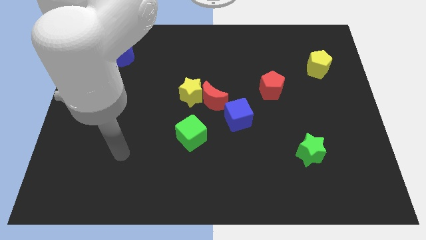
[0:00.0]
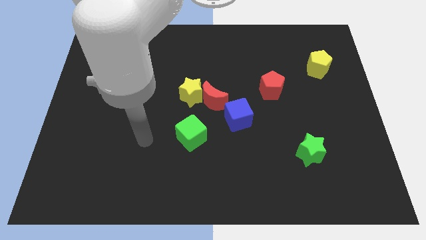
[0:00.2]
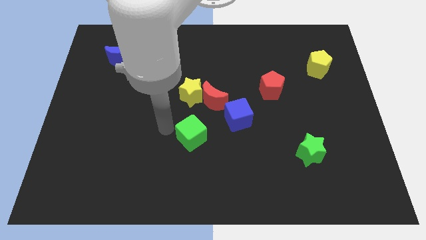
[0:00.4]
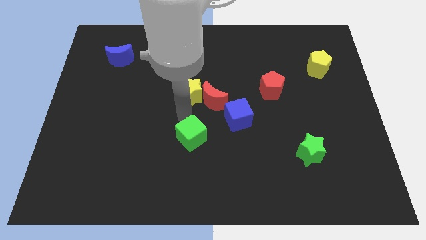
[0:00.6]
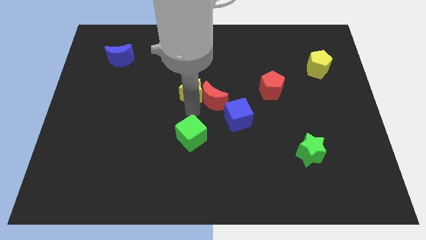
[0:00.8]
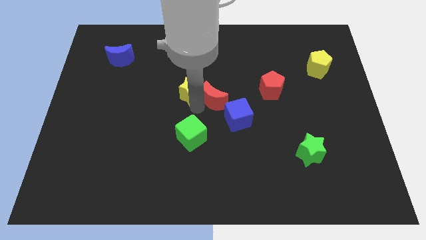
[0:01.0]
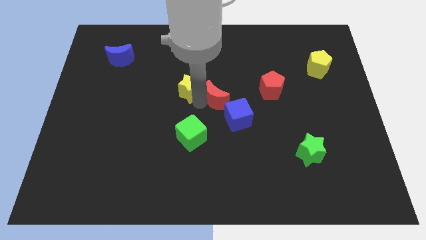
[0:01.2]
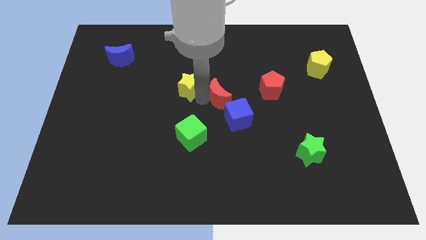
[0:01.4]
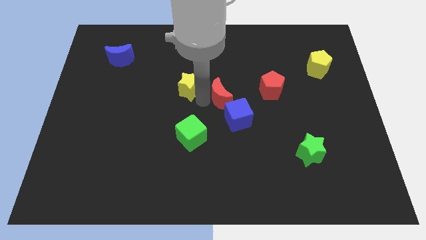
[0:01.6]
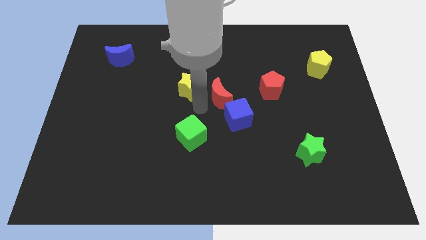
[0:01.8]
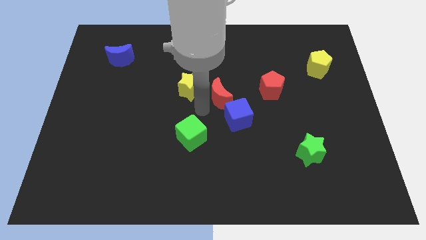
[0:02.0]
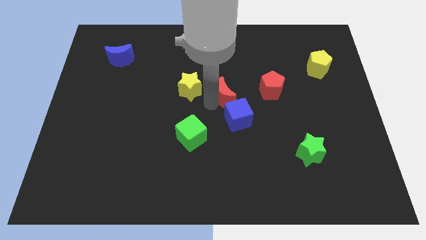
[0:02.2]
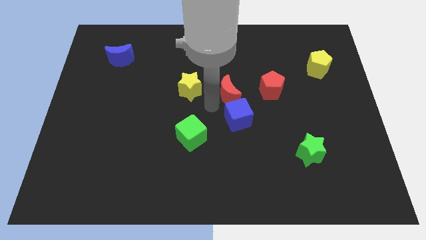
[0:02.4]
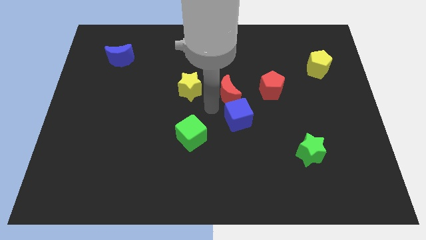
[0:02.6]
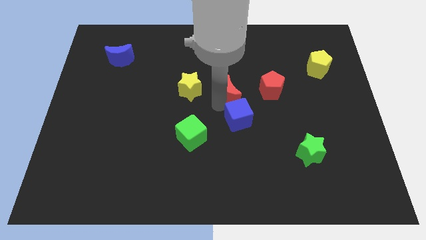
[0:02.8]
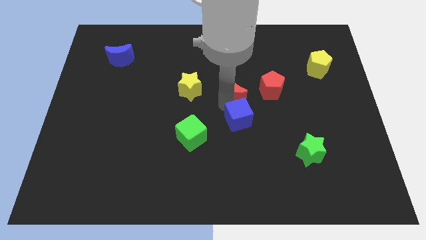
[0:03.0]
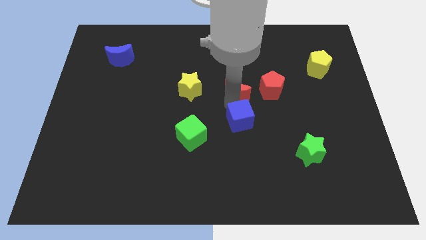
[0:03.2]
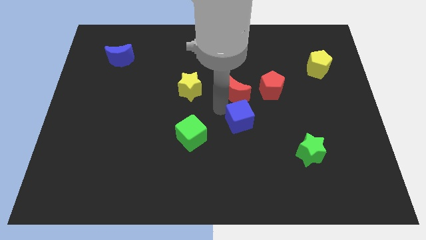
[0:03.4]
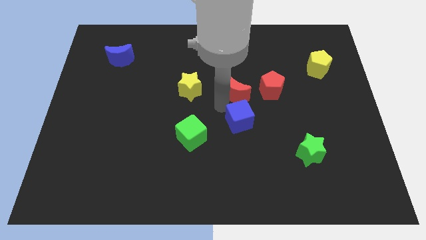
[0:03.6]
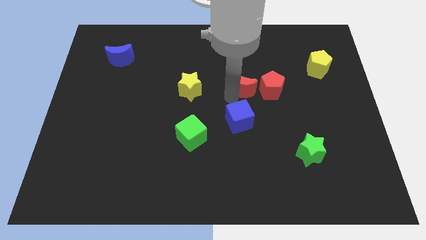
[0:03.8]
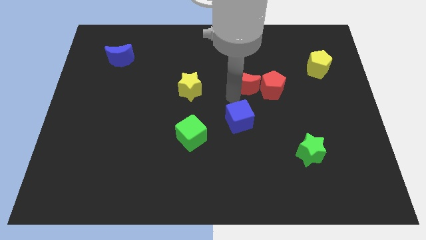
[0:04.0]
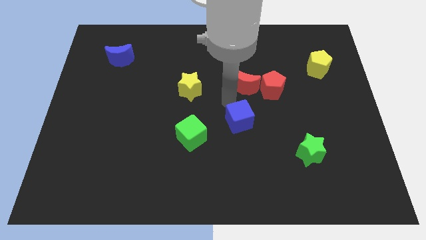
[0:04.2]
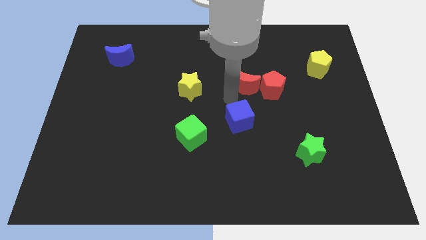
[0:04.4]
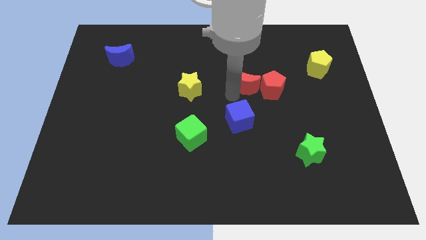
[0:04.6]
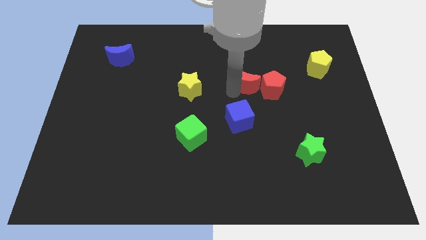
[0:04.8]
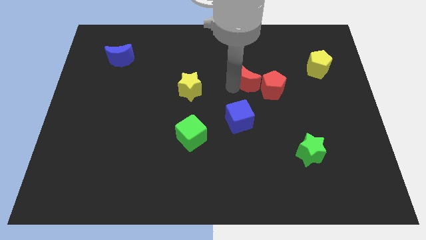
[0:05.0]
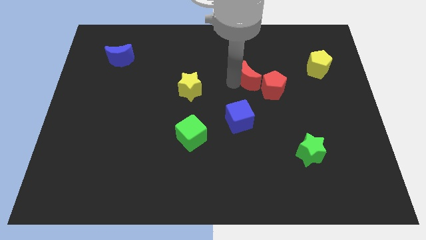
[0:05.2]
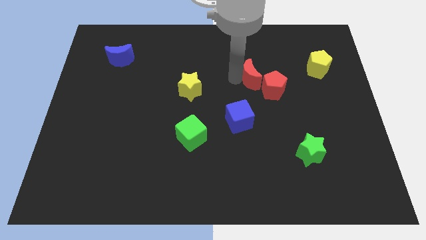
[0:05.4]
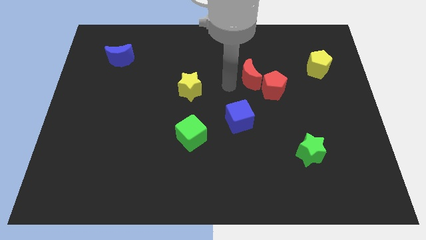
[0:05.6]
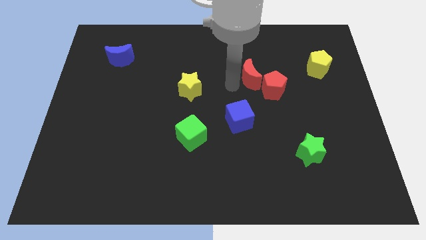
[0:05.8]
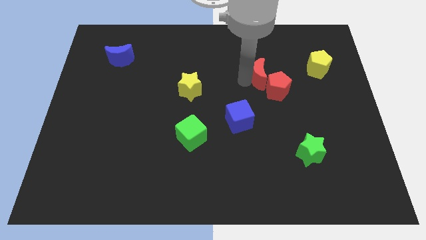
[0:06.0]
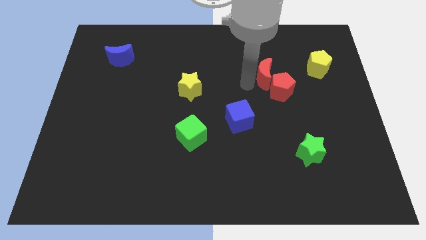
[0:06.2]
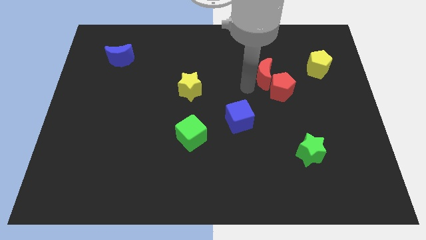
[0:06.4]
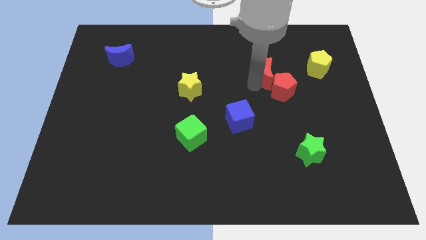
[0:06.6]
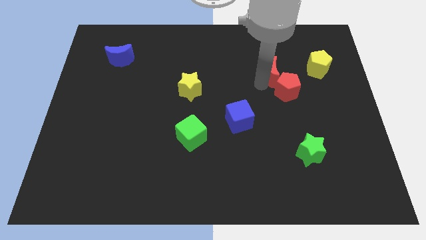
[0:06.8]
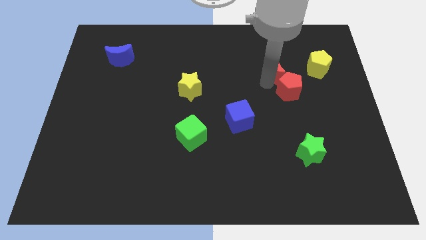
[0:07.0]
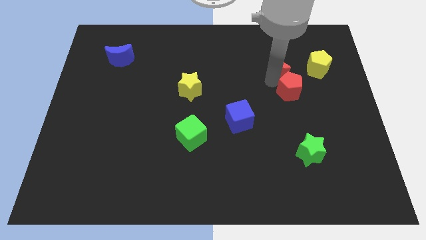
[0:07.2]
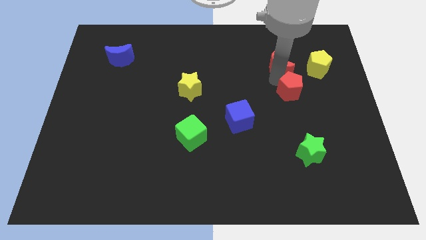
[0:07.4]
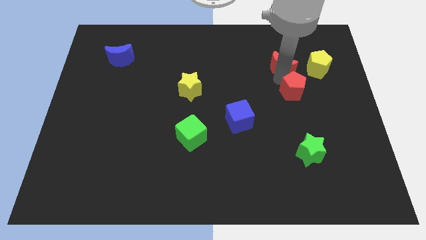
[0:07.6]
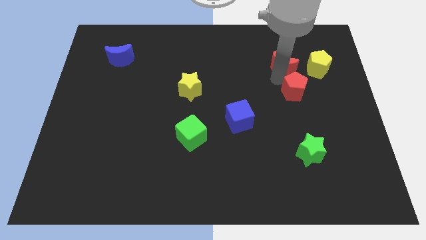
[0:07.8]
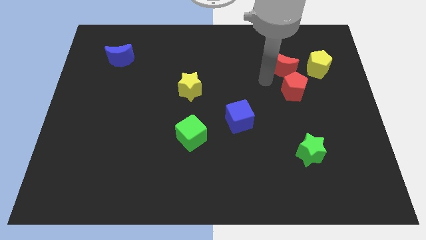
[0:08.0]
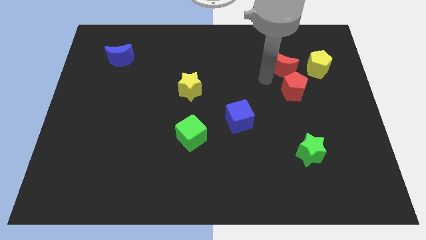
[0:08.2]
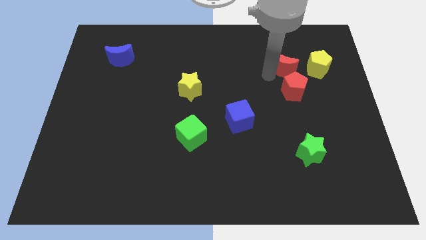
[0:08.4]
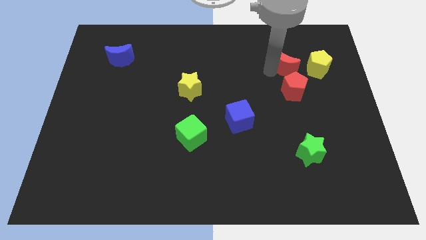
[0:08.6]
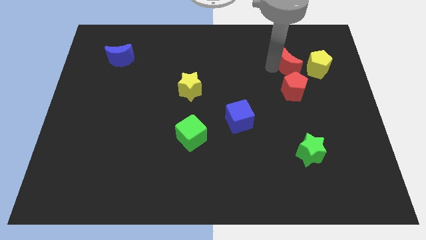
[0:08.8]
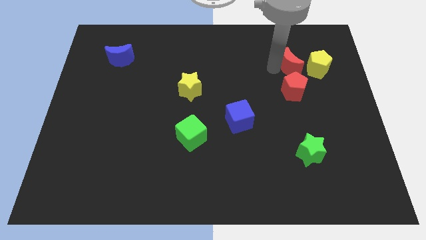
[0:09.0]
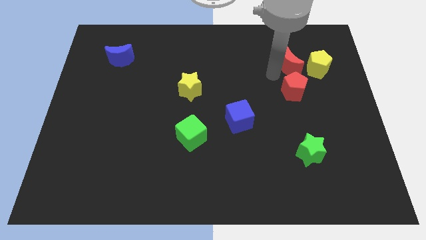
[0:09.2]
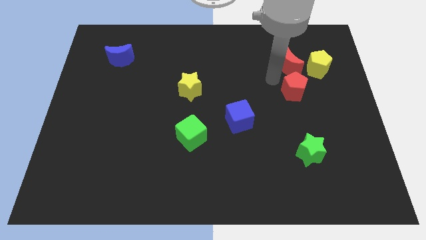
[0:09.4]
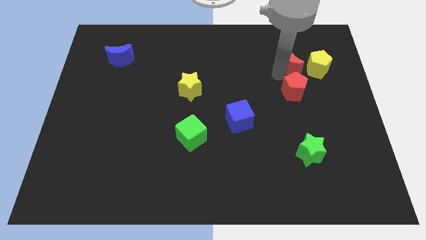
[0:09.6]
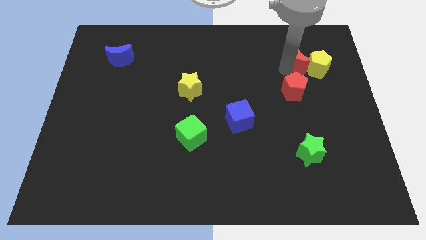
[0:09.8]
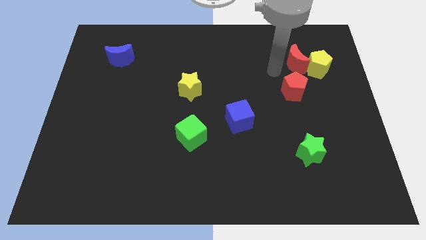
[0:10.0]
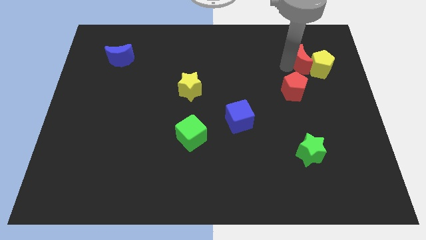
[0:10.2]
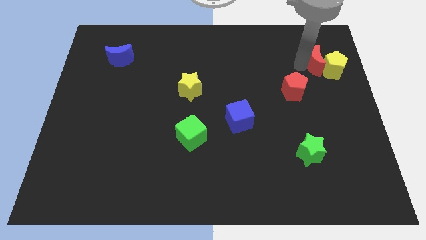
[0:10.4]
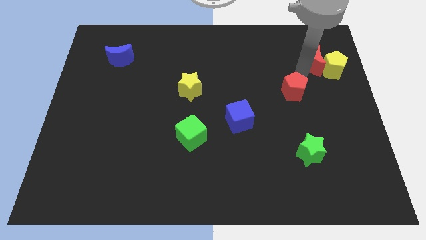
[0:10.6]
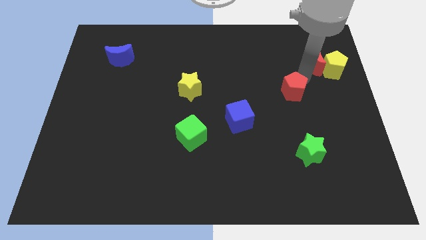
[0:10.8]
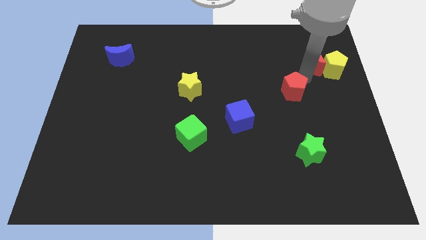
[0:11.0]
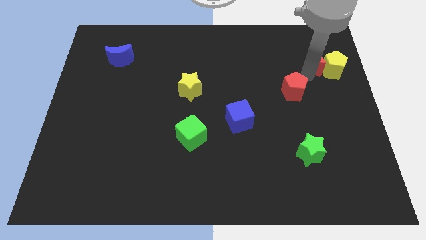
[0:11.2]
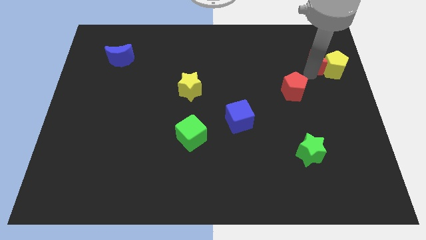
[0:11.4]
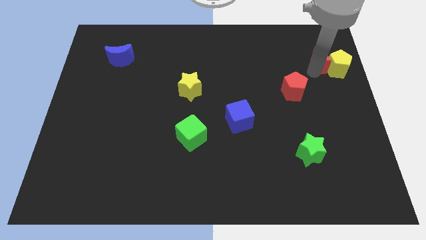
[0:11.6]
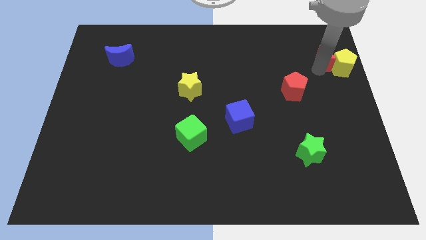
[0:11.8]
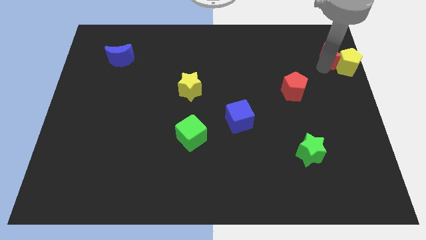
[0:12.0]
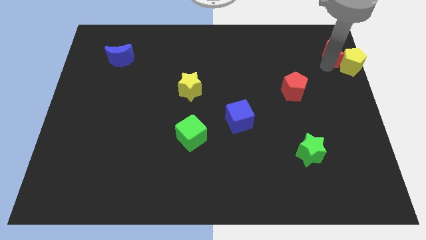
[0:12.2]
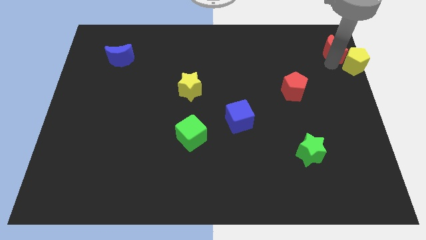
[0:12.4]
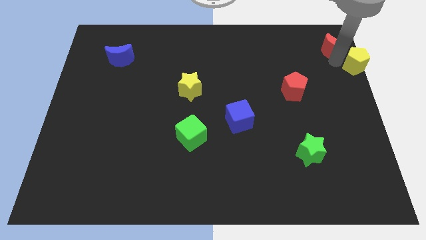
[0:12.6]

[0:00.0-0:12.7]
put the red moon to the upper right corner
